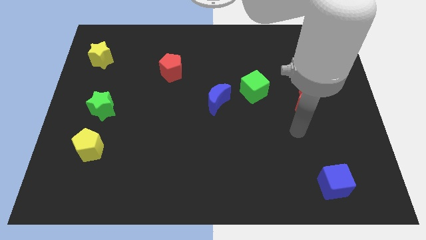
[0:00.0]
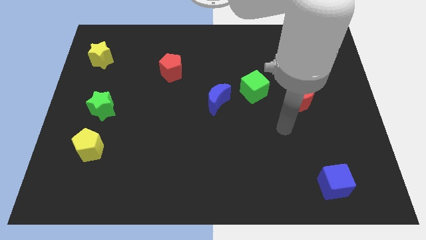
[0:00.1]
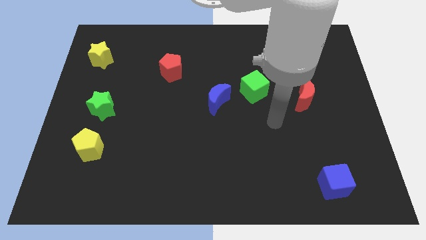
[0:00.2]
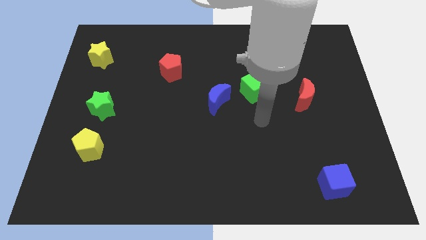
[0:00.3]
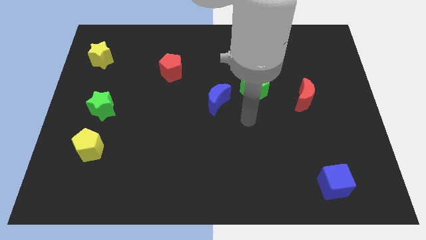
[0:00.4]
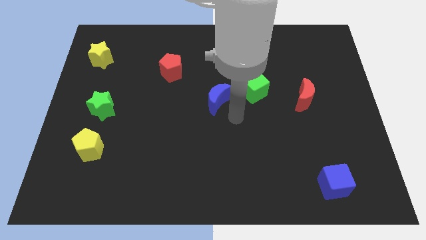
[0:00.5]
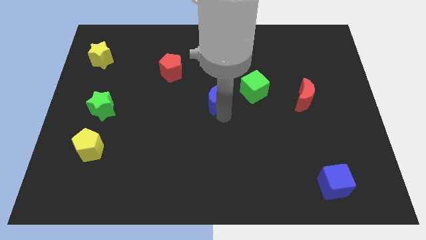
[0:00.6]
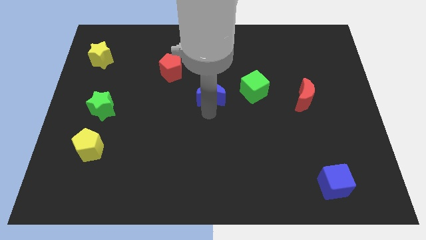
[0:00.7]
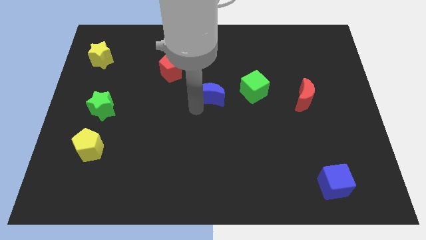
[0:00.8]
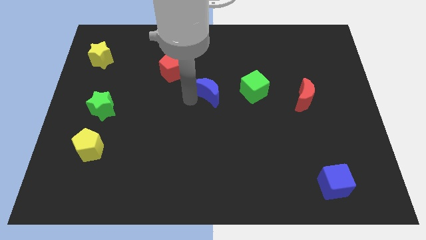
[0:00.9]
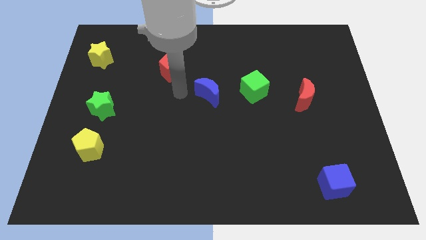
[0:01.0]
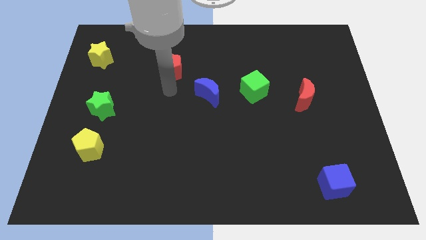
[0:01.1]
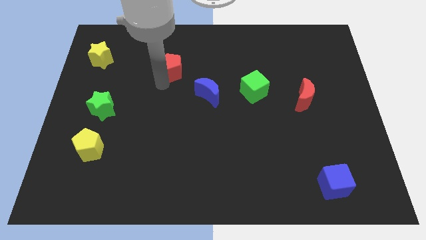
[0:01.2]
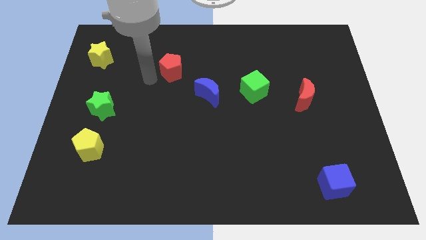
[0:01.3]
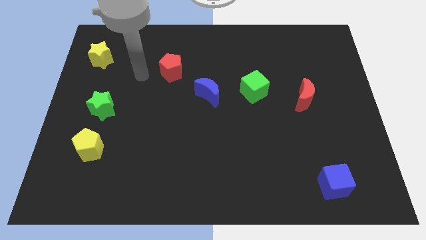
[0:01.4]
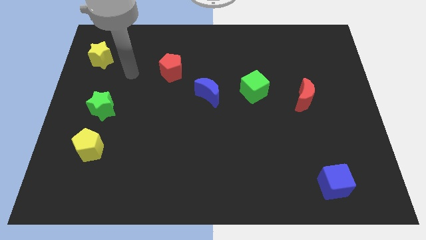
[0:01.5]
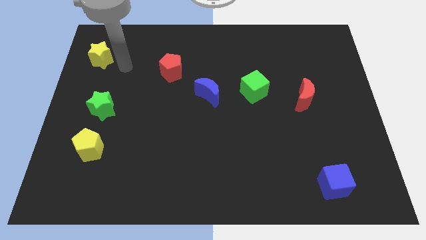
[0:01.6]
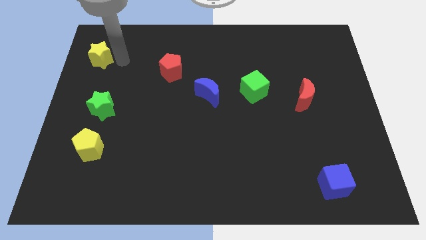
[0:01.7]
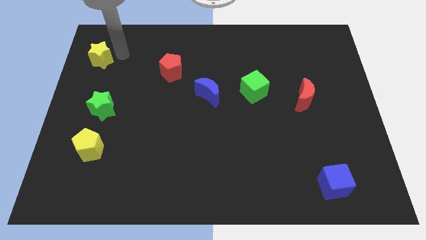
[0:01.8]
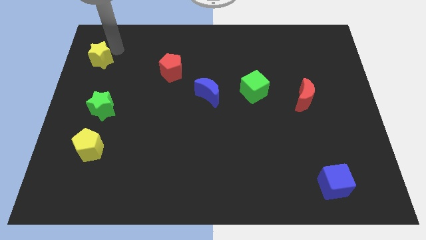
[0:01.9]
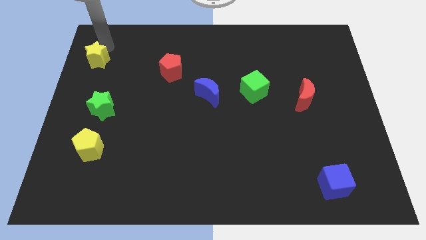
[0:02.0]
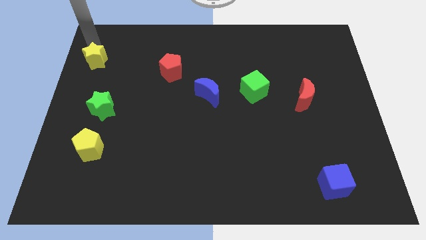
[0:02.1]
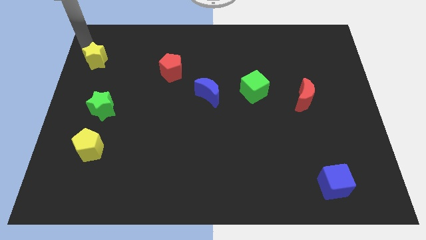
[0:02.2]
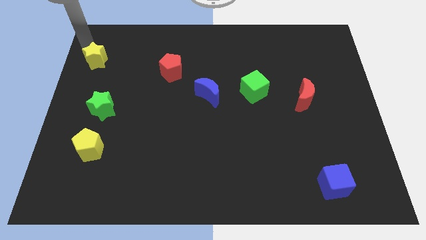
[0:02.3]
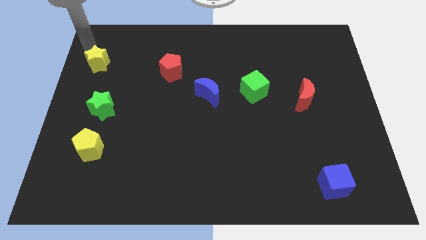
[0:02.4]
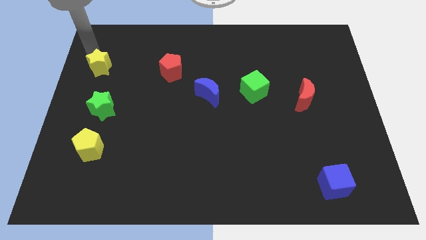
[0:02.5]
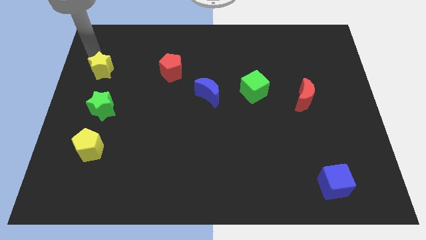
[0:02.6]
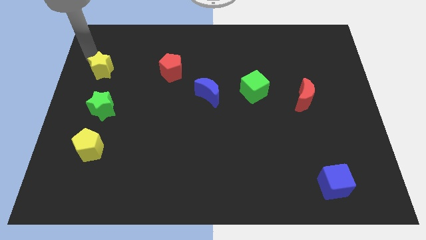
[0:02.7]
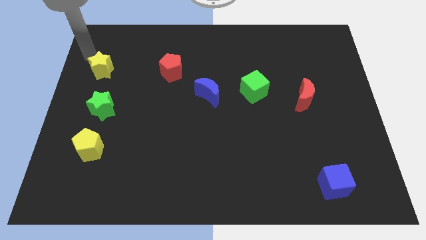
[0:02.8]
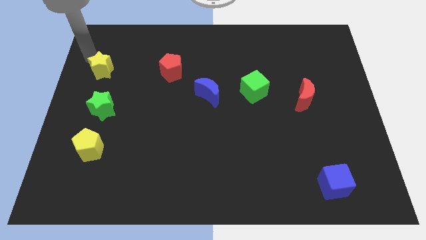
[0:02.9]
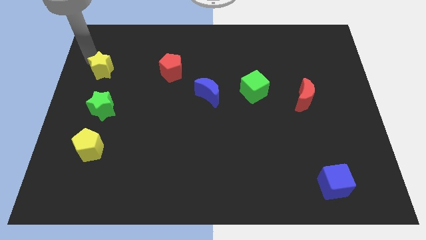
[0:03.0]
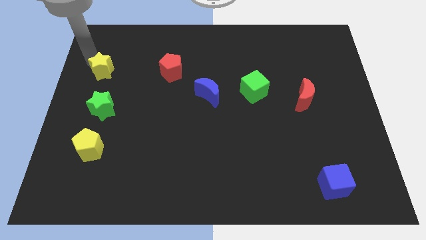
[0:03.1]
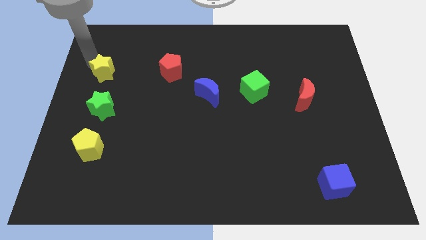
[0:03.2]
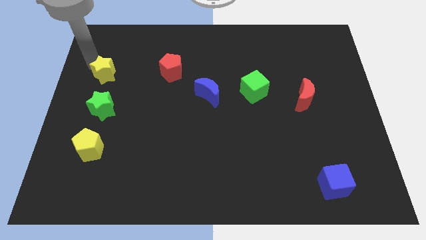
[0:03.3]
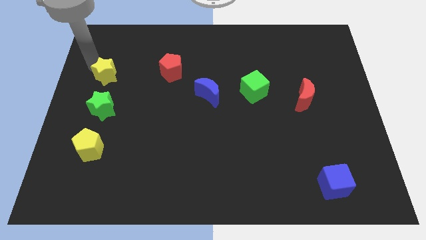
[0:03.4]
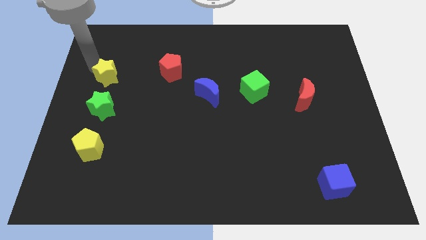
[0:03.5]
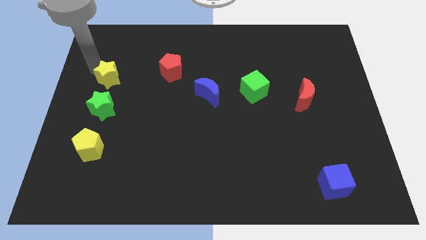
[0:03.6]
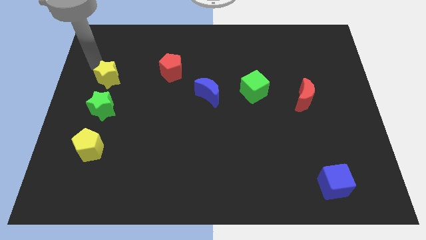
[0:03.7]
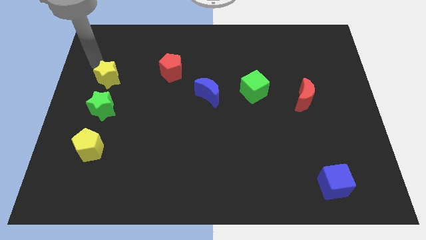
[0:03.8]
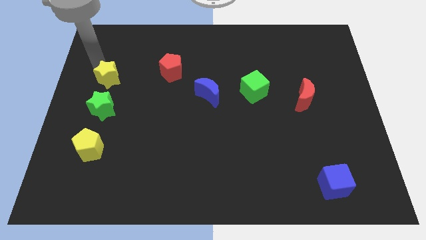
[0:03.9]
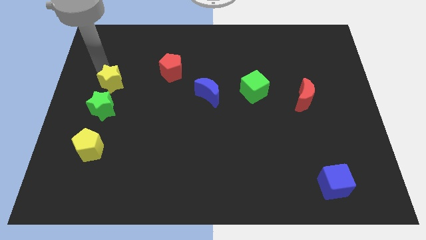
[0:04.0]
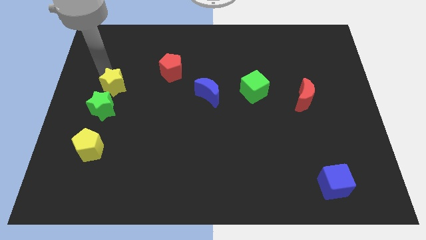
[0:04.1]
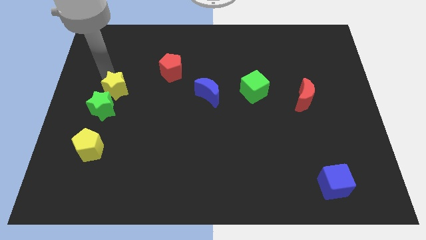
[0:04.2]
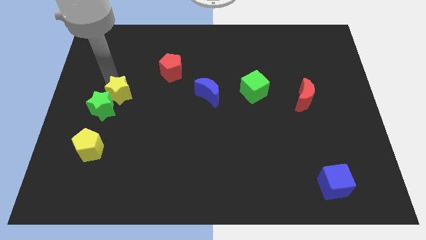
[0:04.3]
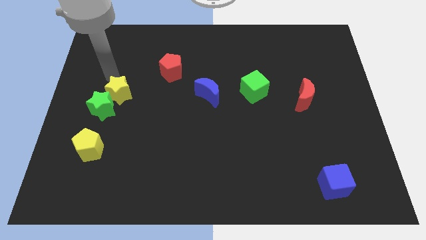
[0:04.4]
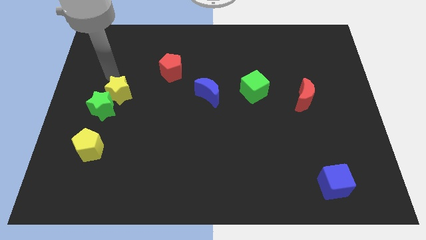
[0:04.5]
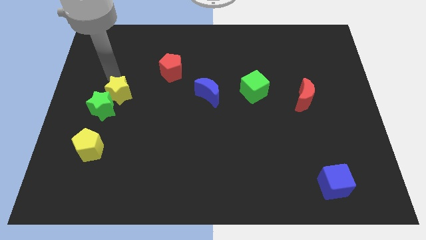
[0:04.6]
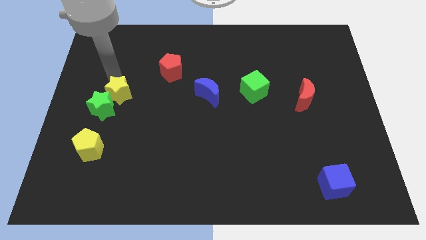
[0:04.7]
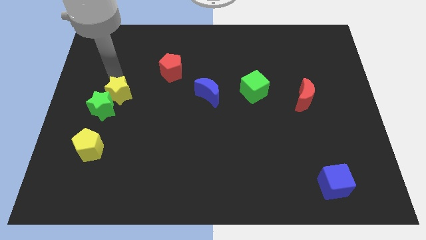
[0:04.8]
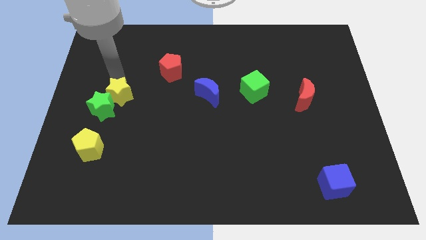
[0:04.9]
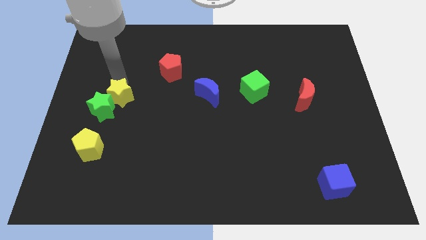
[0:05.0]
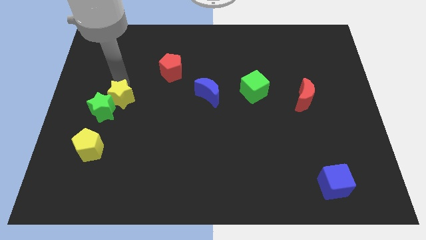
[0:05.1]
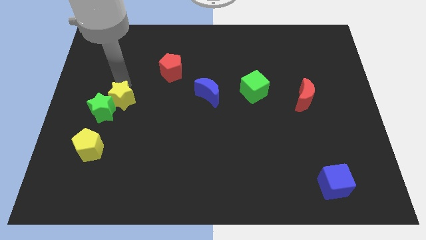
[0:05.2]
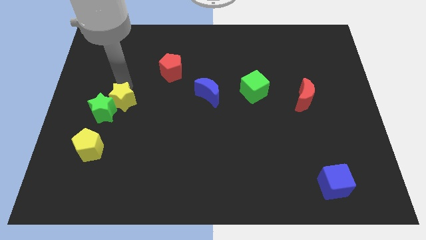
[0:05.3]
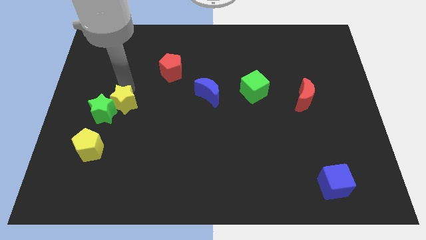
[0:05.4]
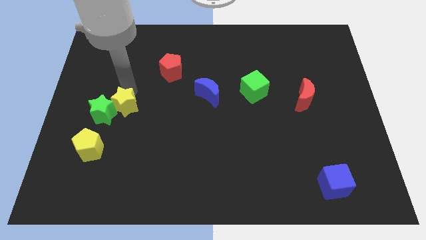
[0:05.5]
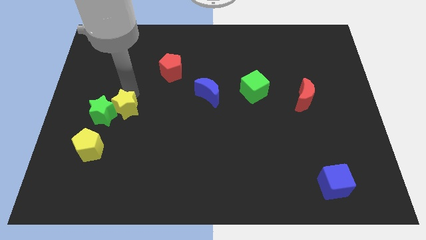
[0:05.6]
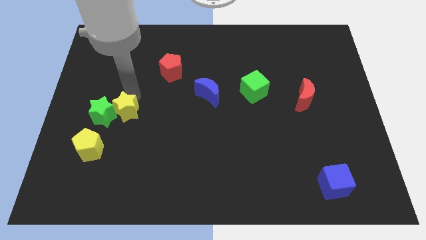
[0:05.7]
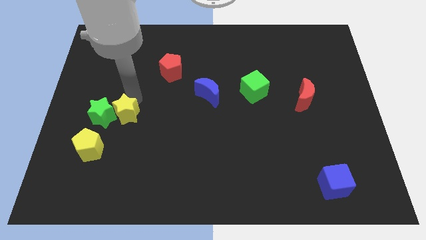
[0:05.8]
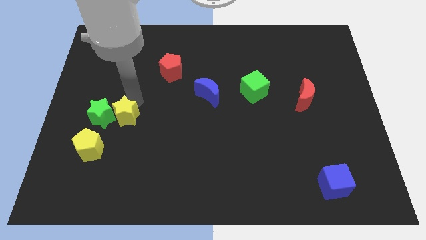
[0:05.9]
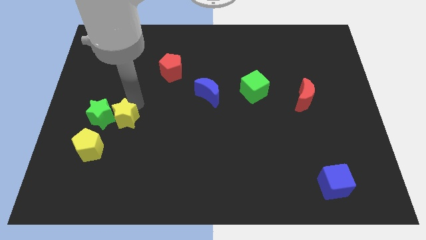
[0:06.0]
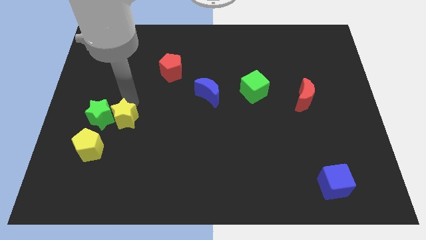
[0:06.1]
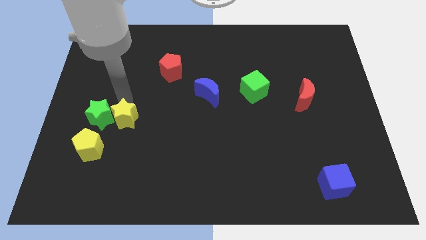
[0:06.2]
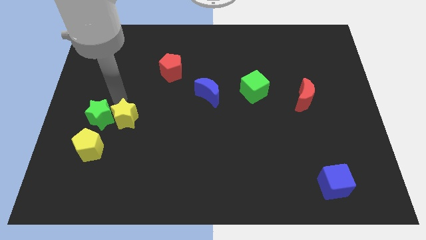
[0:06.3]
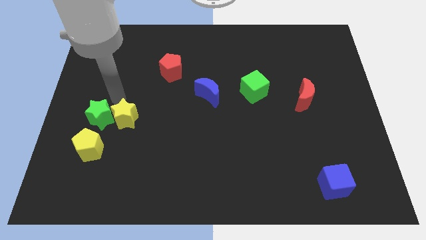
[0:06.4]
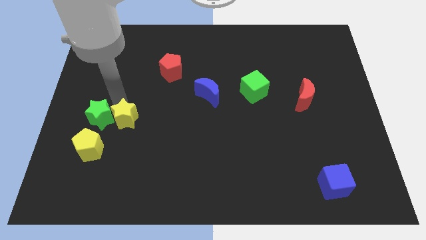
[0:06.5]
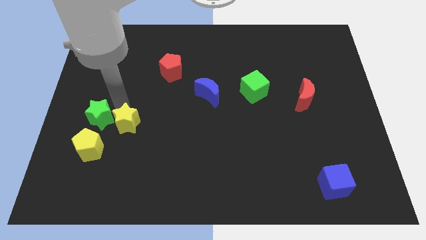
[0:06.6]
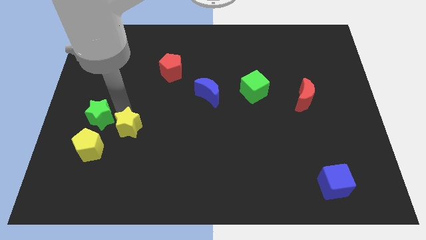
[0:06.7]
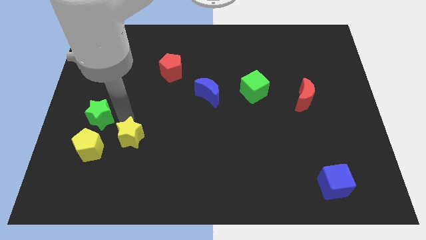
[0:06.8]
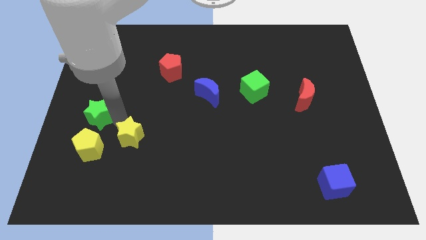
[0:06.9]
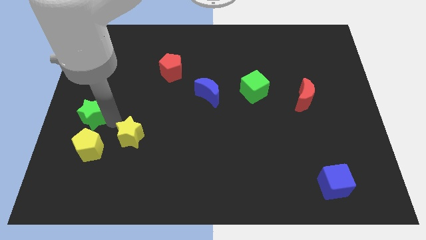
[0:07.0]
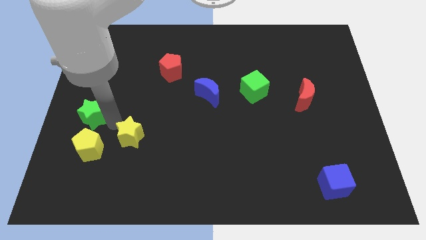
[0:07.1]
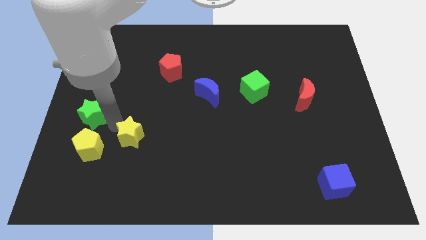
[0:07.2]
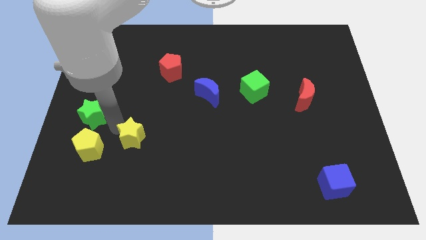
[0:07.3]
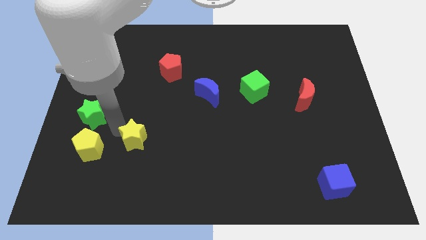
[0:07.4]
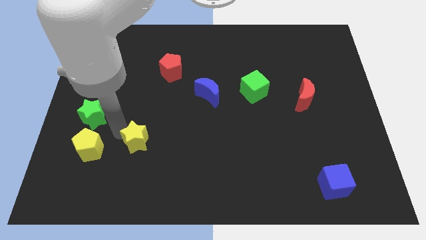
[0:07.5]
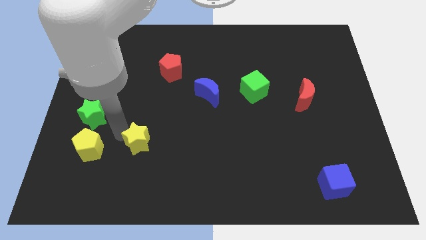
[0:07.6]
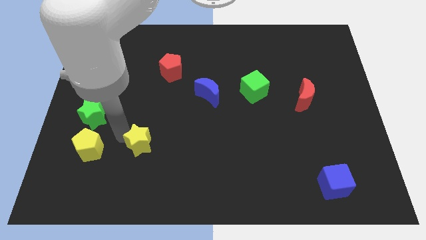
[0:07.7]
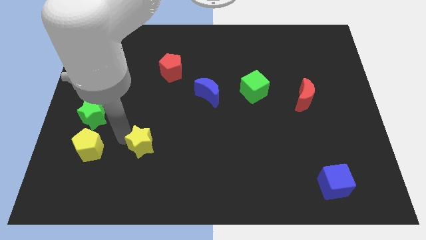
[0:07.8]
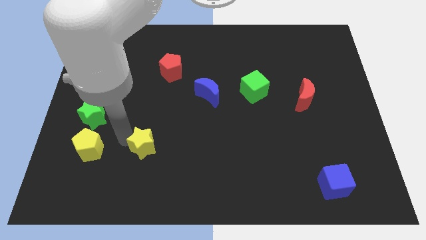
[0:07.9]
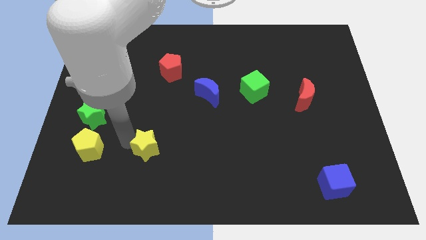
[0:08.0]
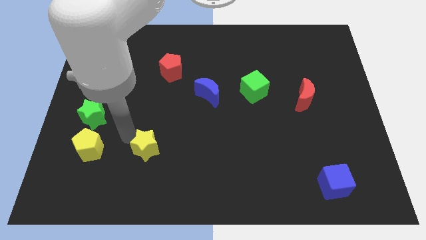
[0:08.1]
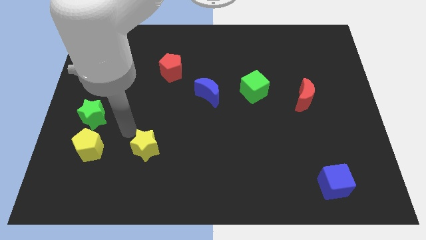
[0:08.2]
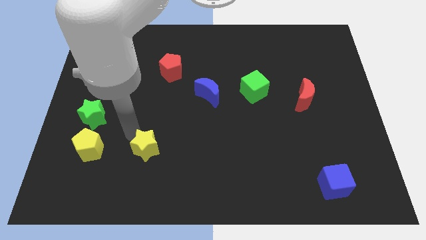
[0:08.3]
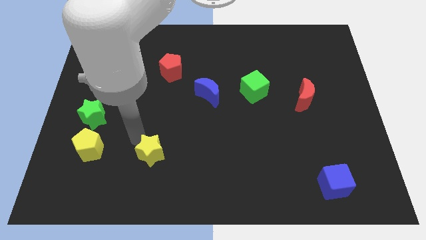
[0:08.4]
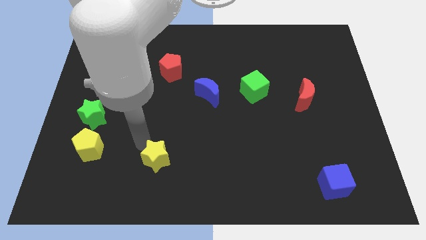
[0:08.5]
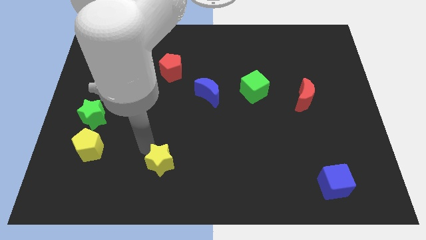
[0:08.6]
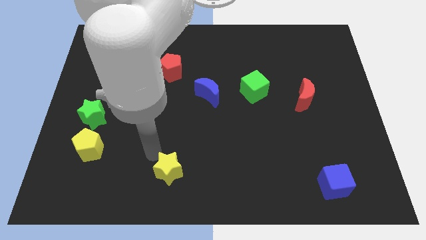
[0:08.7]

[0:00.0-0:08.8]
put the yellow star to the bottom

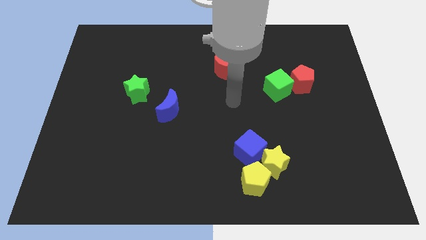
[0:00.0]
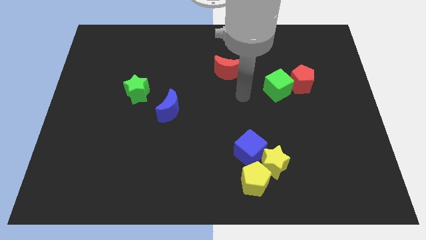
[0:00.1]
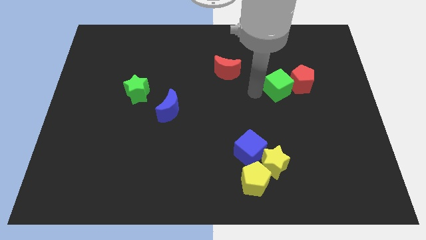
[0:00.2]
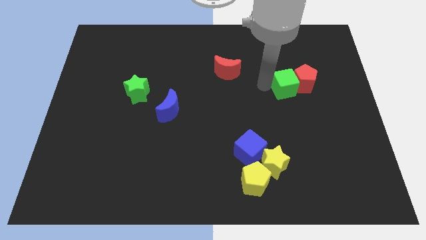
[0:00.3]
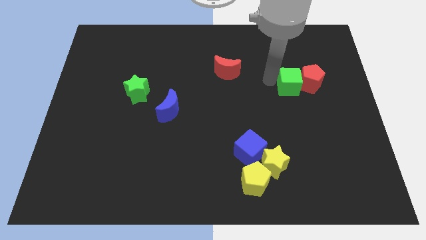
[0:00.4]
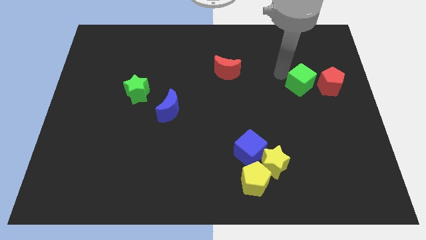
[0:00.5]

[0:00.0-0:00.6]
put the red pentagon to the right side
